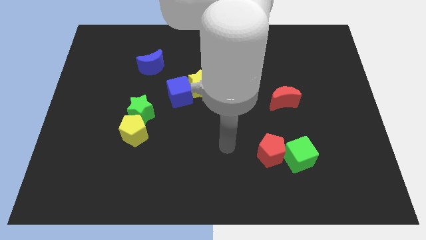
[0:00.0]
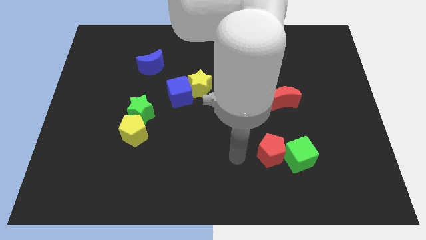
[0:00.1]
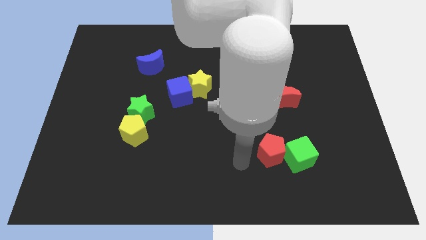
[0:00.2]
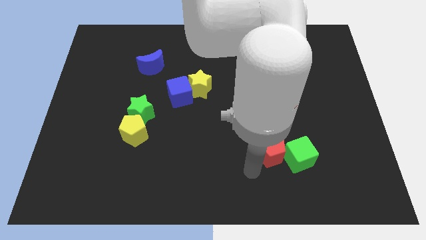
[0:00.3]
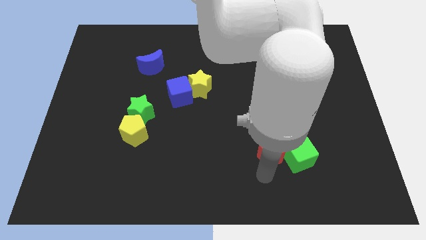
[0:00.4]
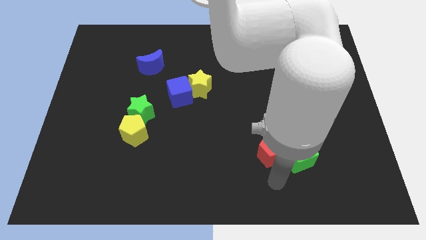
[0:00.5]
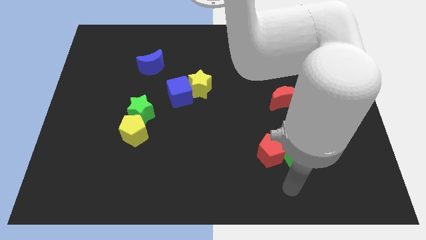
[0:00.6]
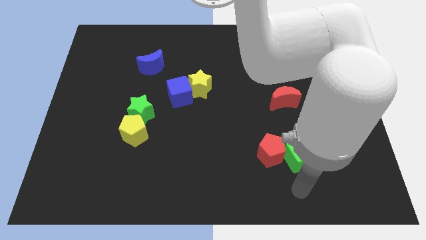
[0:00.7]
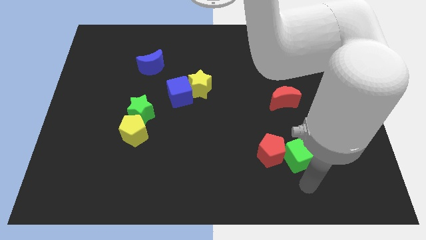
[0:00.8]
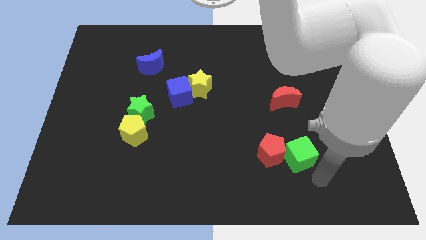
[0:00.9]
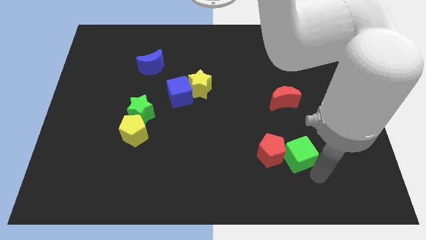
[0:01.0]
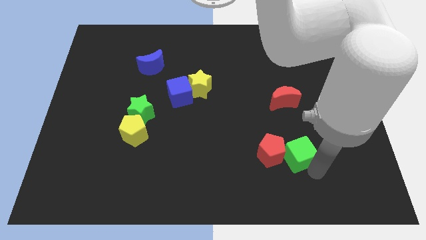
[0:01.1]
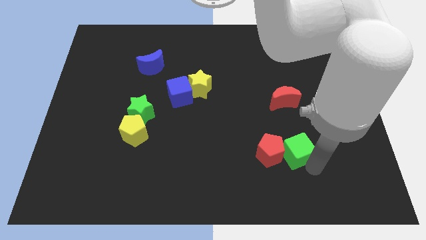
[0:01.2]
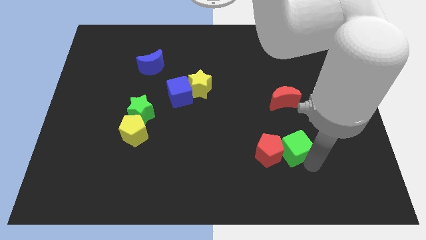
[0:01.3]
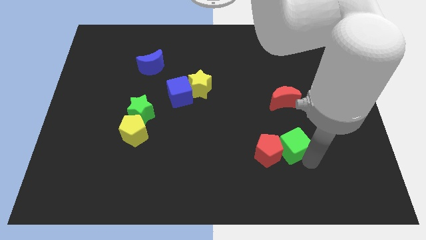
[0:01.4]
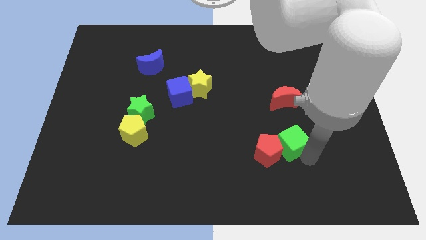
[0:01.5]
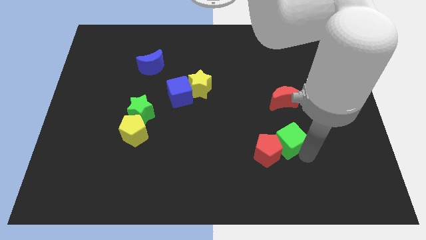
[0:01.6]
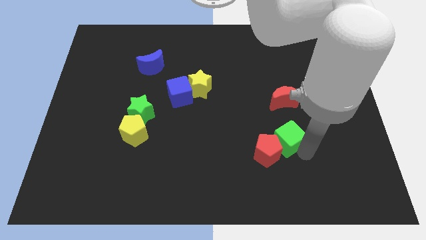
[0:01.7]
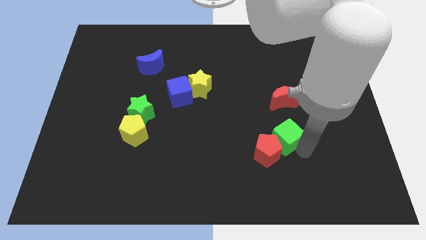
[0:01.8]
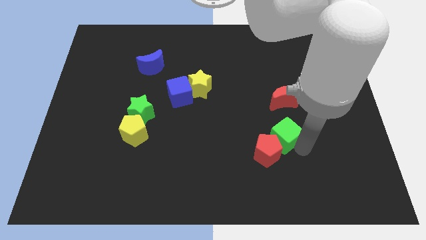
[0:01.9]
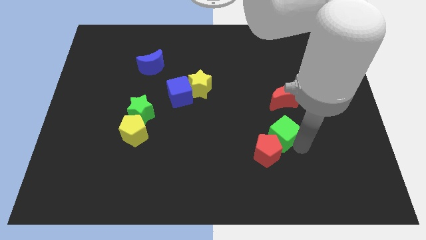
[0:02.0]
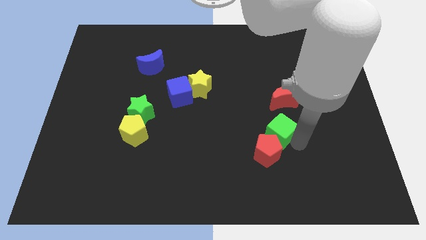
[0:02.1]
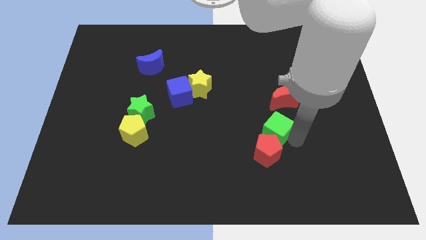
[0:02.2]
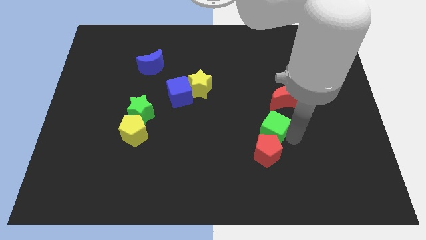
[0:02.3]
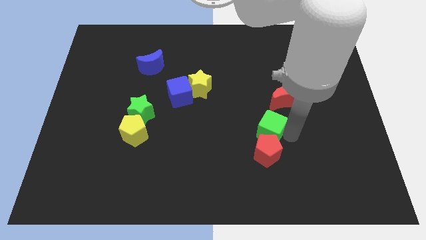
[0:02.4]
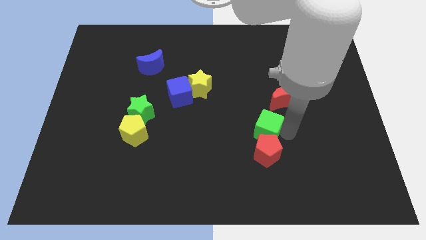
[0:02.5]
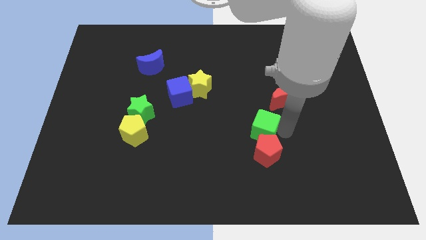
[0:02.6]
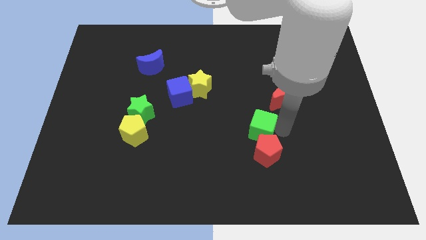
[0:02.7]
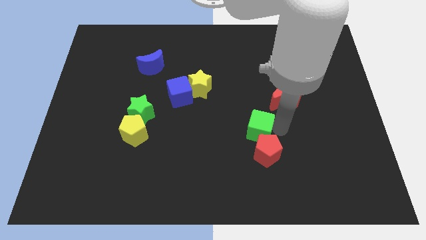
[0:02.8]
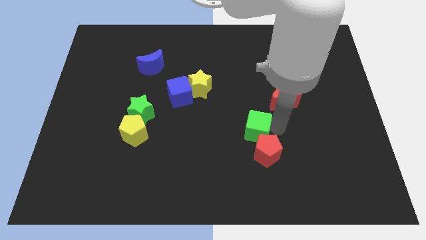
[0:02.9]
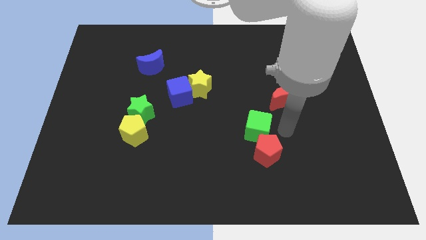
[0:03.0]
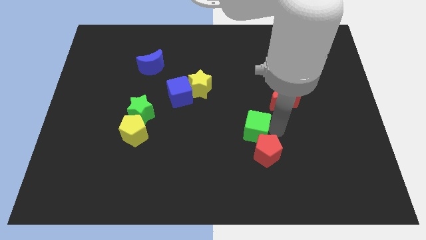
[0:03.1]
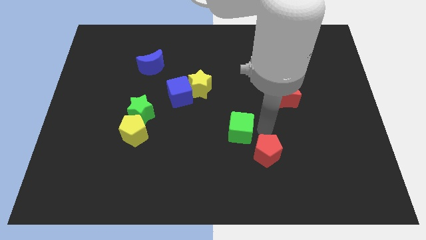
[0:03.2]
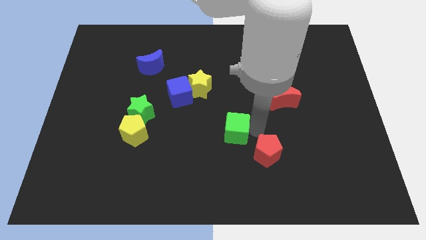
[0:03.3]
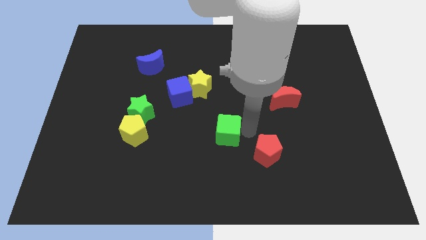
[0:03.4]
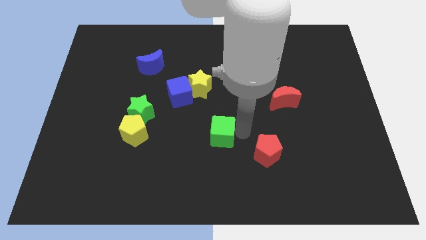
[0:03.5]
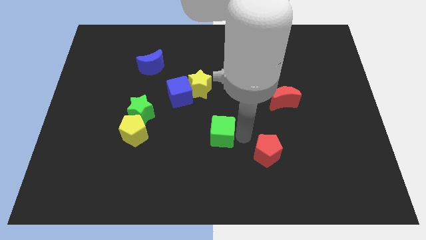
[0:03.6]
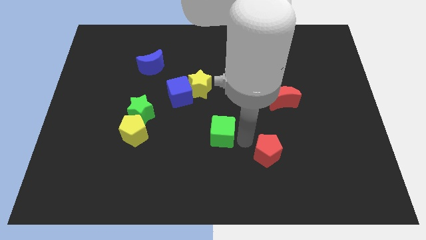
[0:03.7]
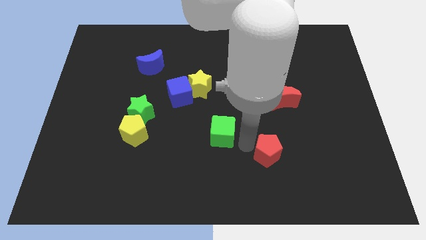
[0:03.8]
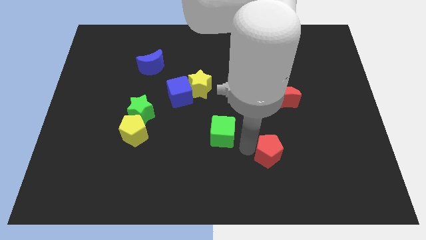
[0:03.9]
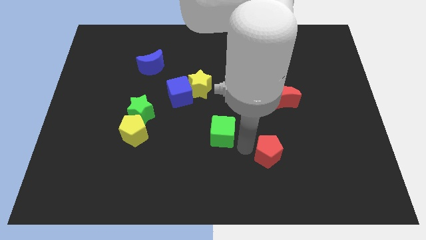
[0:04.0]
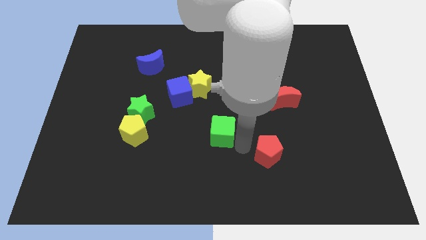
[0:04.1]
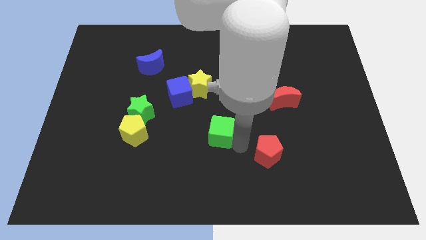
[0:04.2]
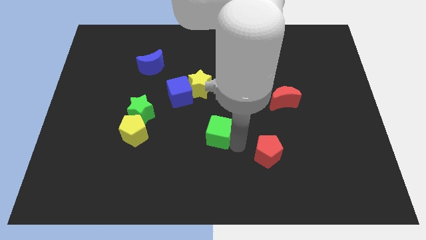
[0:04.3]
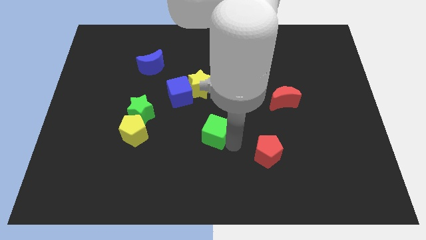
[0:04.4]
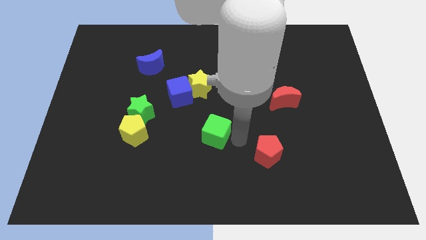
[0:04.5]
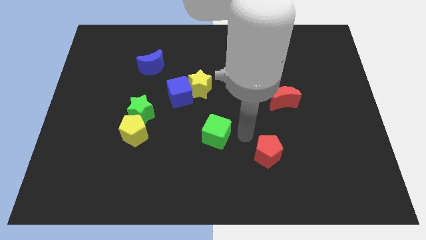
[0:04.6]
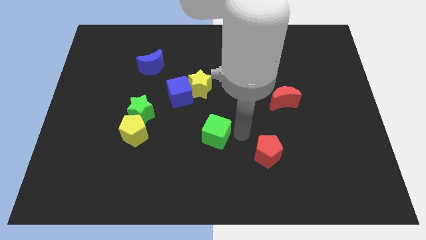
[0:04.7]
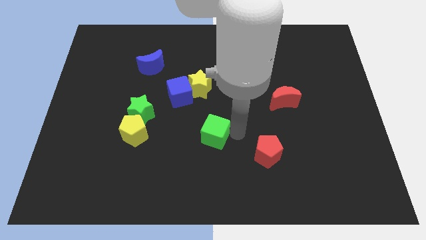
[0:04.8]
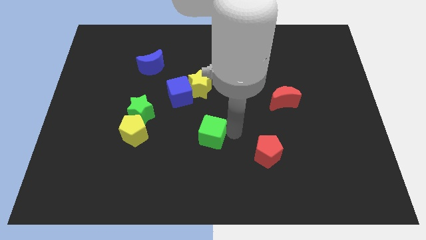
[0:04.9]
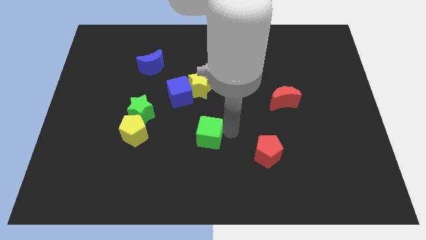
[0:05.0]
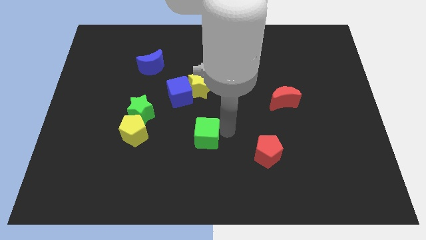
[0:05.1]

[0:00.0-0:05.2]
move the green cube to the right of the yellow pentagon

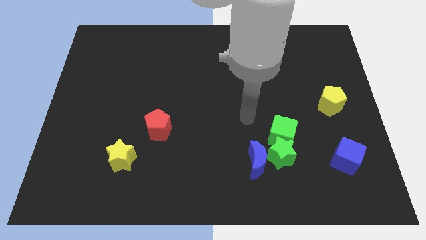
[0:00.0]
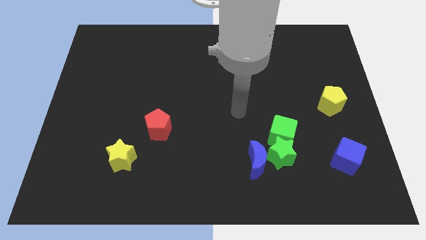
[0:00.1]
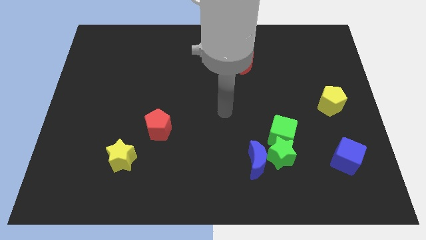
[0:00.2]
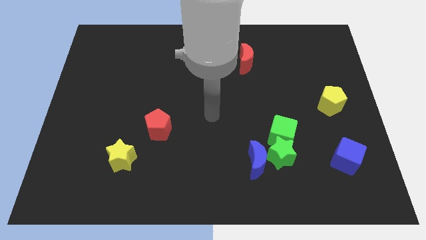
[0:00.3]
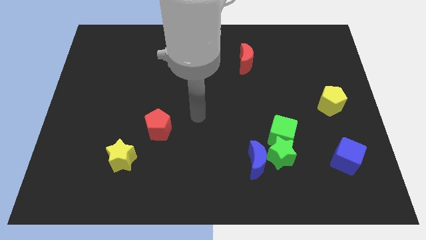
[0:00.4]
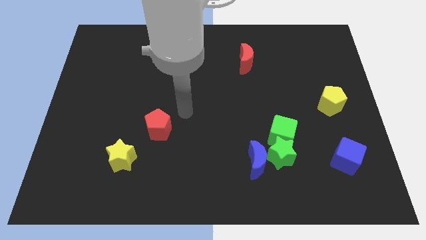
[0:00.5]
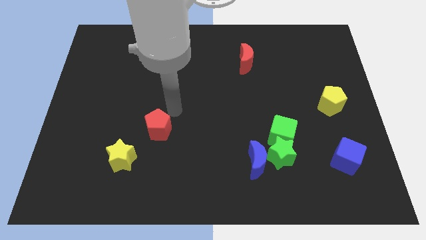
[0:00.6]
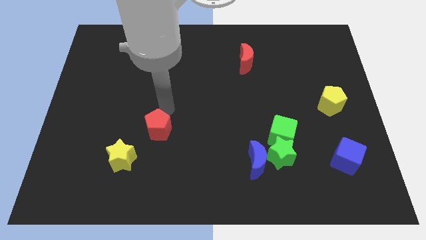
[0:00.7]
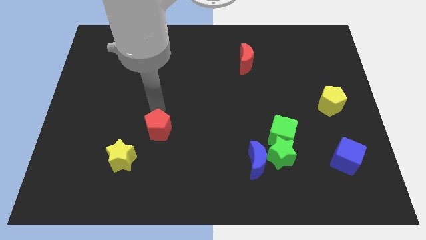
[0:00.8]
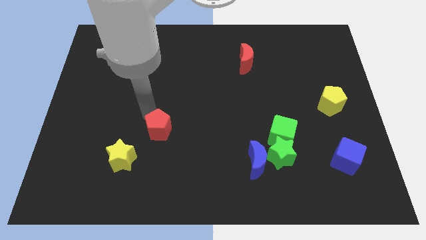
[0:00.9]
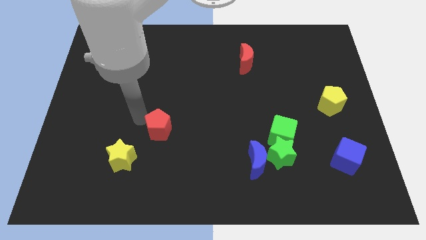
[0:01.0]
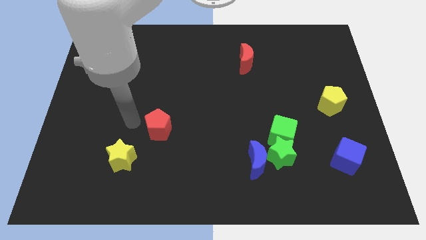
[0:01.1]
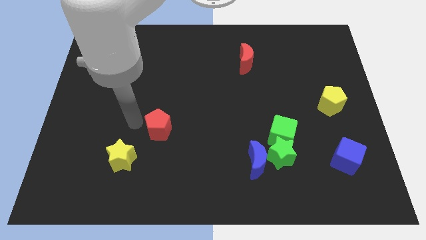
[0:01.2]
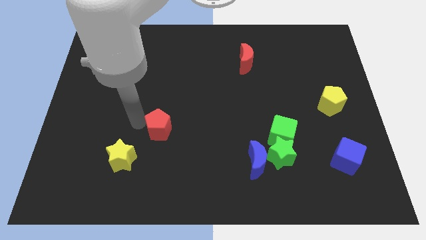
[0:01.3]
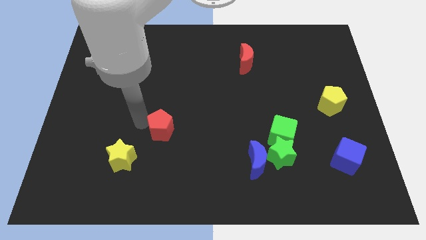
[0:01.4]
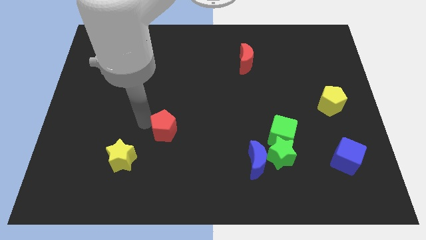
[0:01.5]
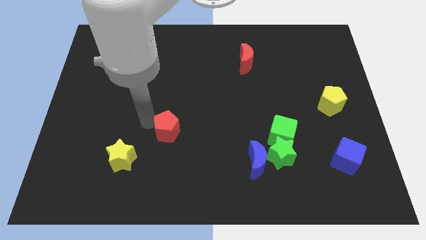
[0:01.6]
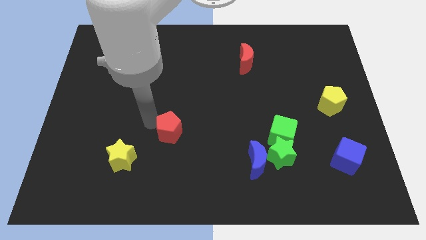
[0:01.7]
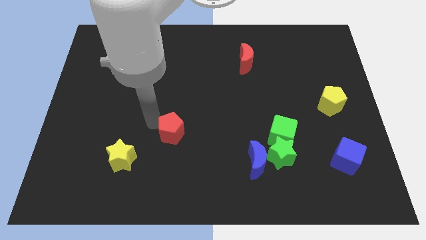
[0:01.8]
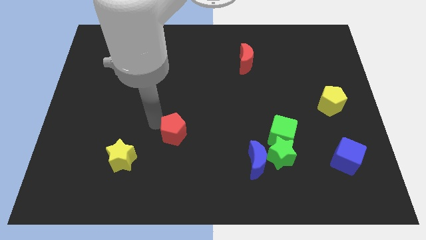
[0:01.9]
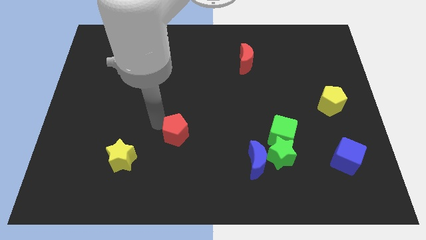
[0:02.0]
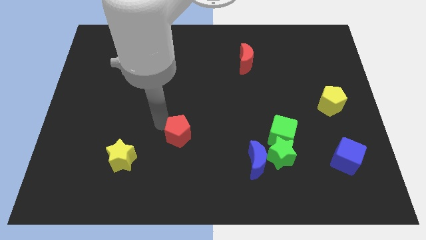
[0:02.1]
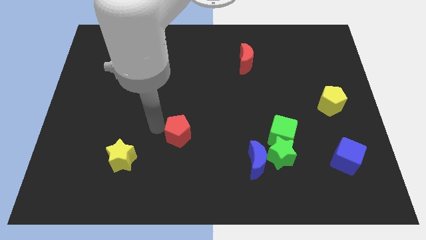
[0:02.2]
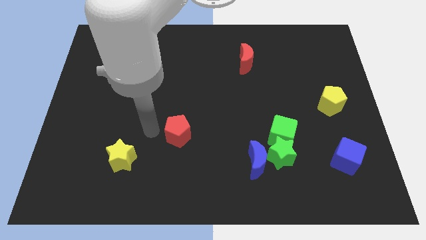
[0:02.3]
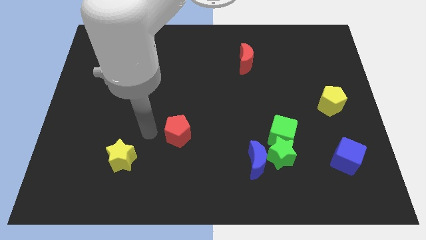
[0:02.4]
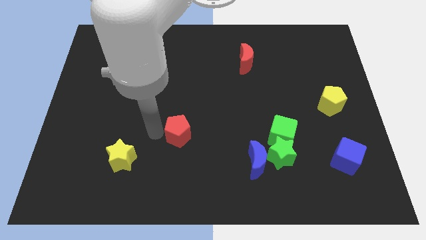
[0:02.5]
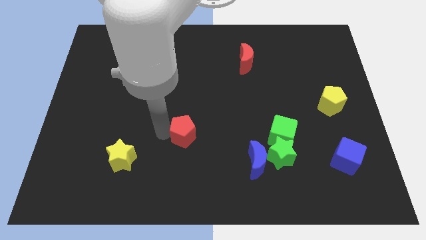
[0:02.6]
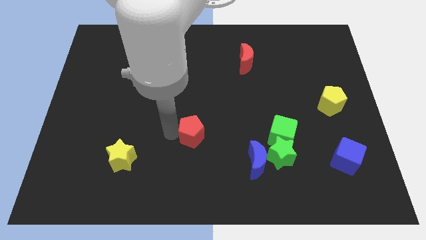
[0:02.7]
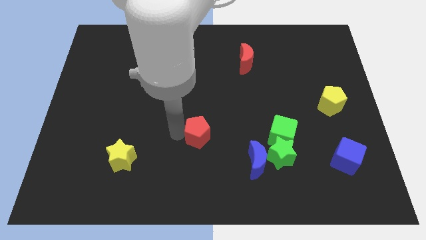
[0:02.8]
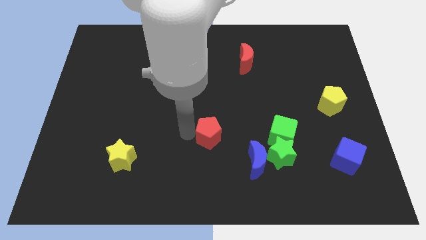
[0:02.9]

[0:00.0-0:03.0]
move the red pentagon diagonally up and to the left of the blue moon
